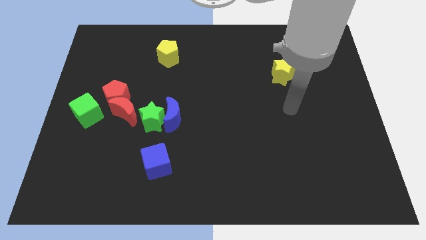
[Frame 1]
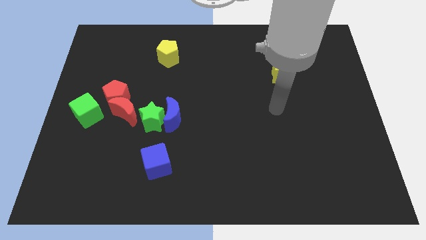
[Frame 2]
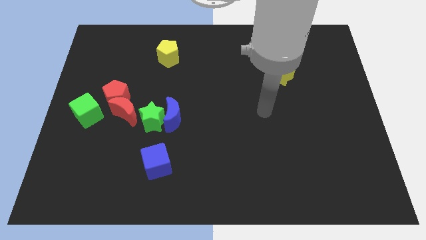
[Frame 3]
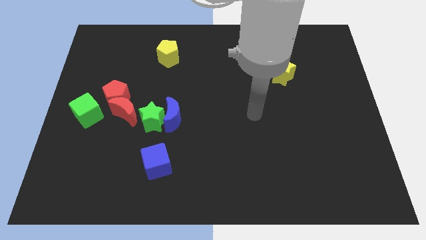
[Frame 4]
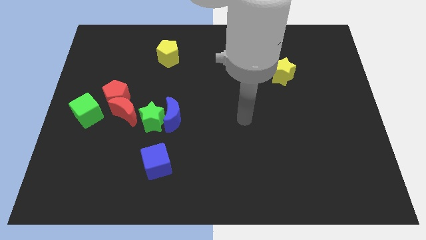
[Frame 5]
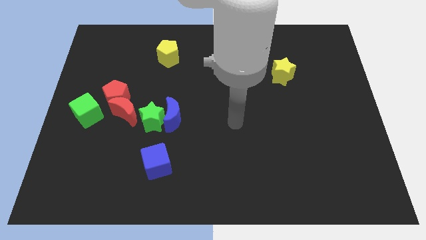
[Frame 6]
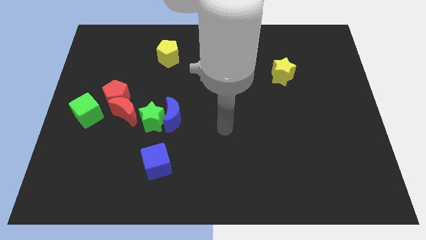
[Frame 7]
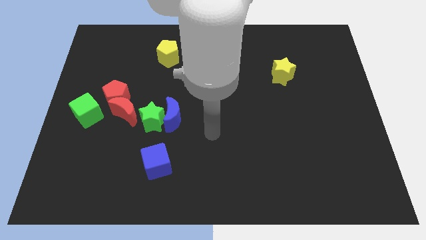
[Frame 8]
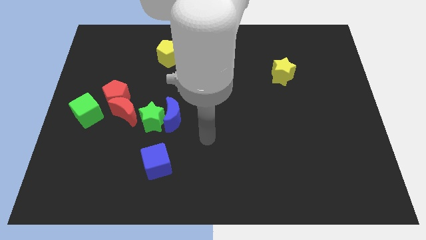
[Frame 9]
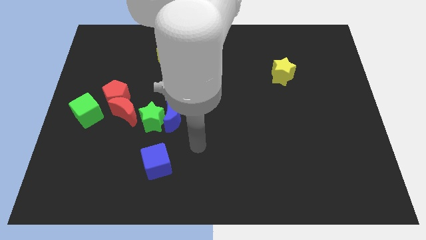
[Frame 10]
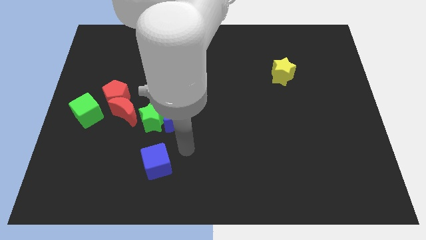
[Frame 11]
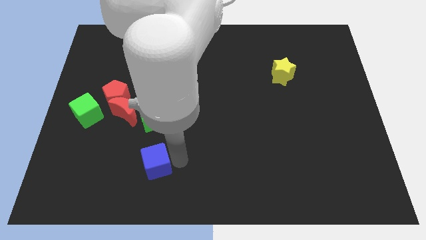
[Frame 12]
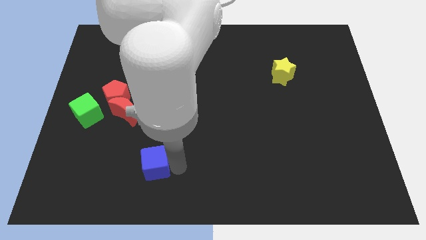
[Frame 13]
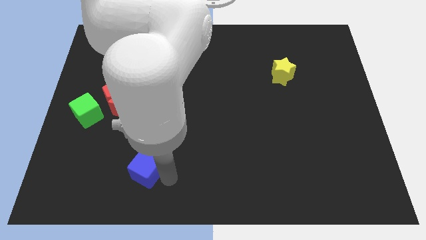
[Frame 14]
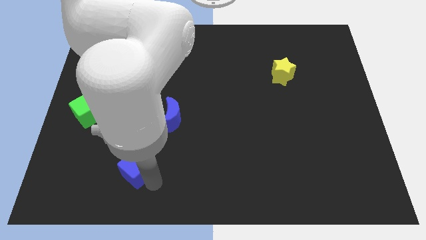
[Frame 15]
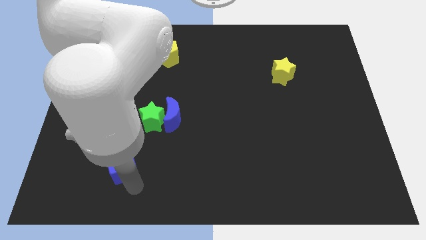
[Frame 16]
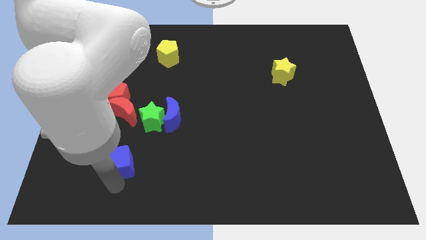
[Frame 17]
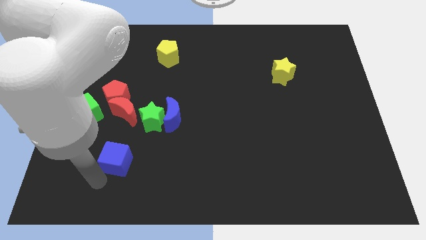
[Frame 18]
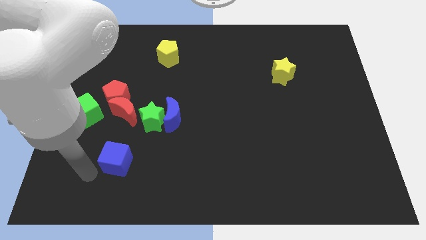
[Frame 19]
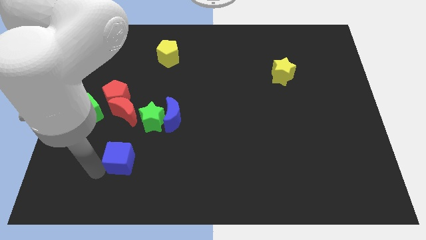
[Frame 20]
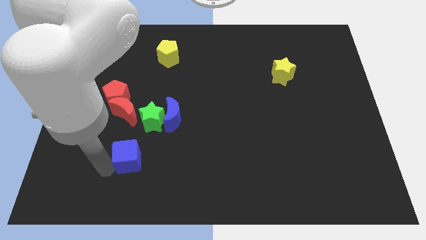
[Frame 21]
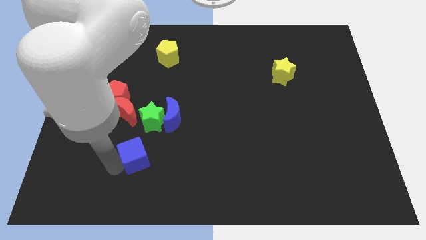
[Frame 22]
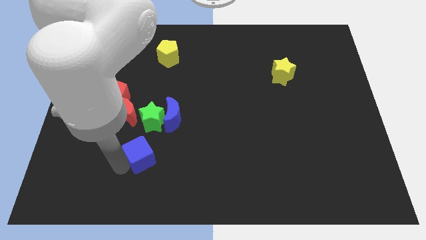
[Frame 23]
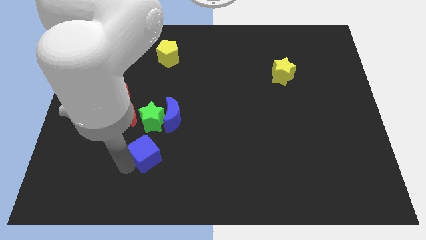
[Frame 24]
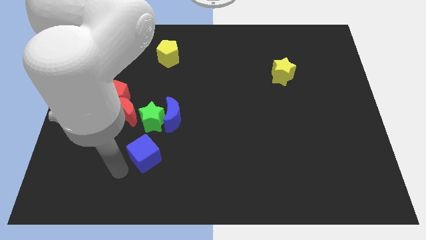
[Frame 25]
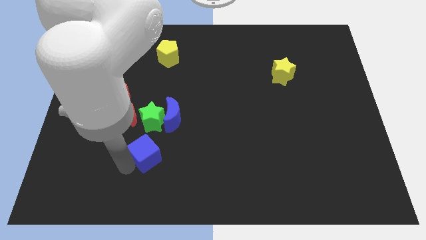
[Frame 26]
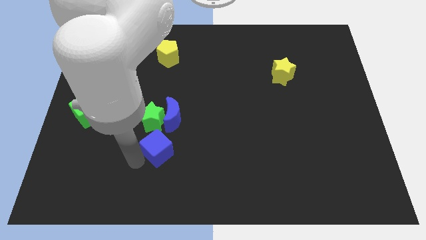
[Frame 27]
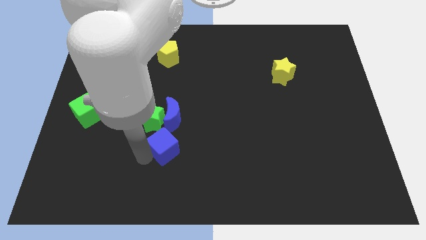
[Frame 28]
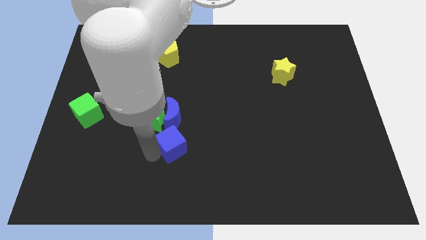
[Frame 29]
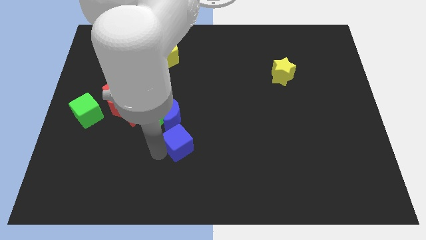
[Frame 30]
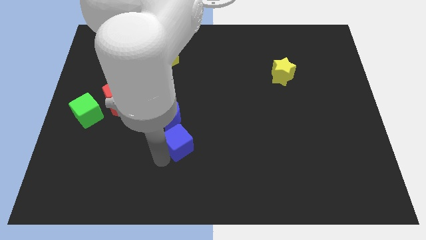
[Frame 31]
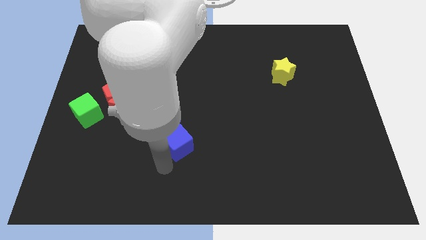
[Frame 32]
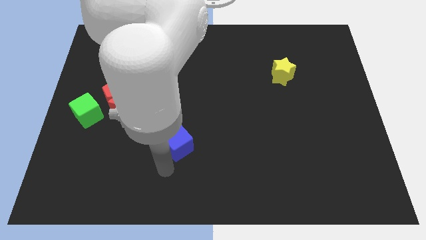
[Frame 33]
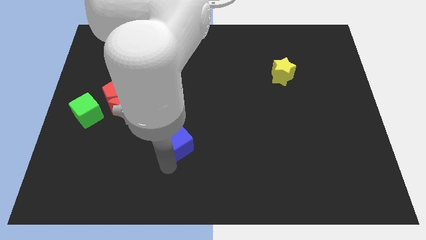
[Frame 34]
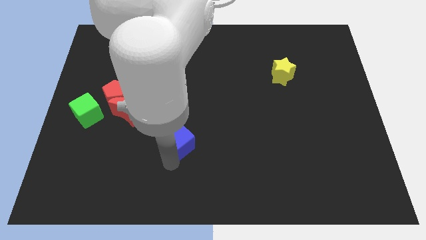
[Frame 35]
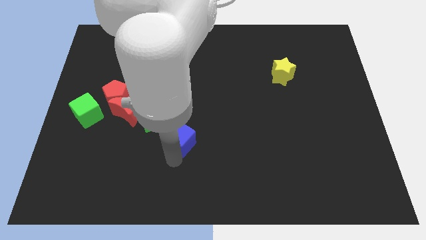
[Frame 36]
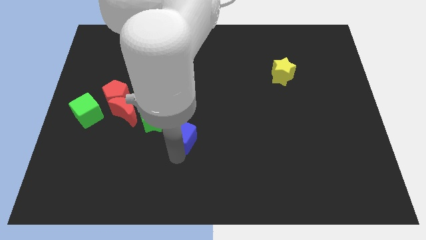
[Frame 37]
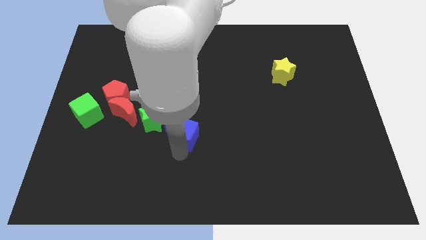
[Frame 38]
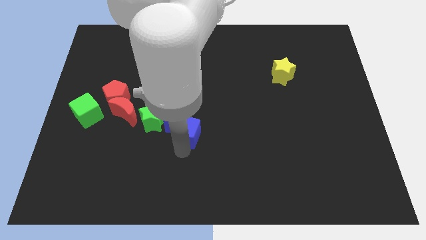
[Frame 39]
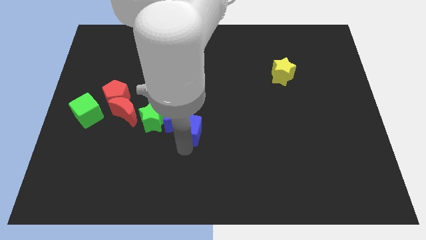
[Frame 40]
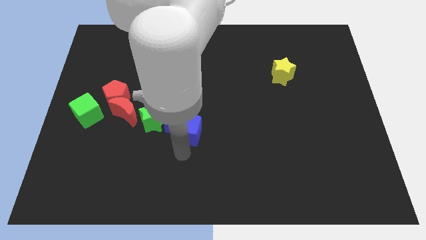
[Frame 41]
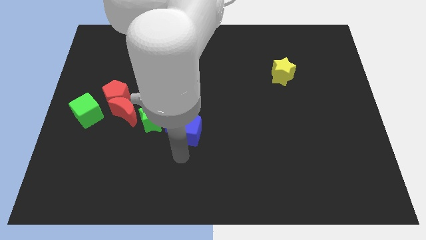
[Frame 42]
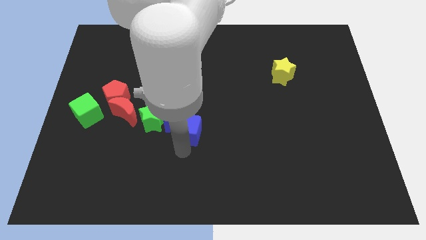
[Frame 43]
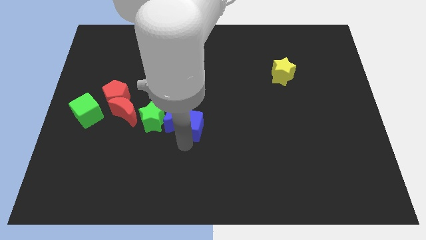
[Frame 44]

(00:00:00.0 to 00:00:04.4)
move the blue cube up a bit

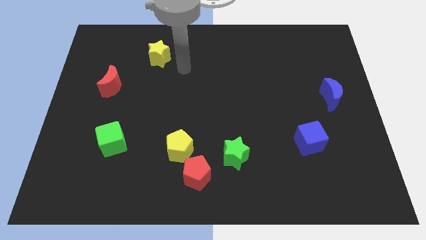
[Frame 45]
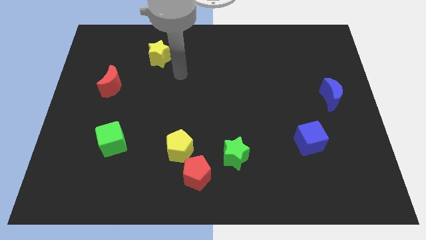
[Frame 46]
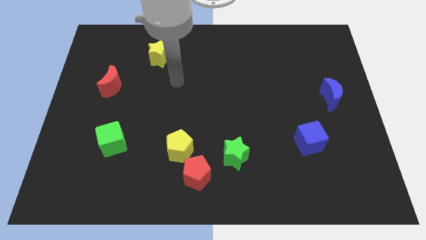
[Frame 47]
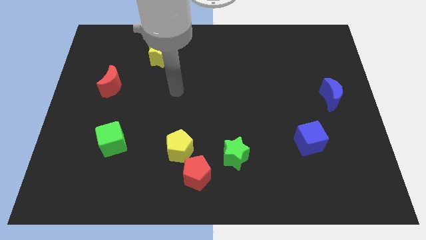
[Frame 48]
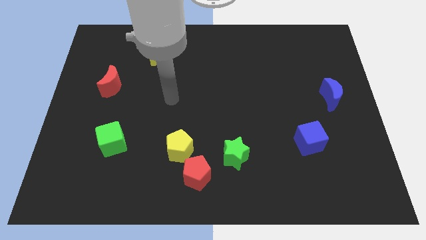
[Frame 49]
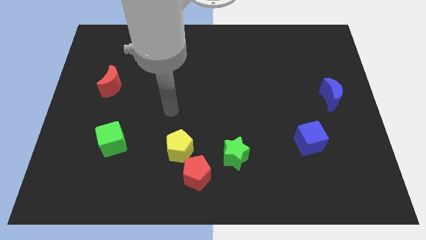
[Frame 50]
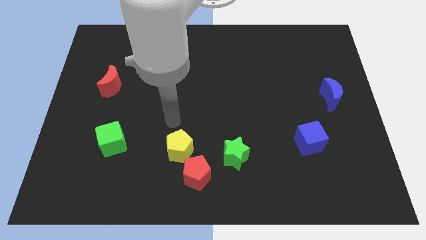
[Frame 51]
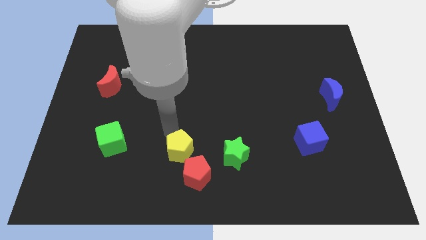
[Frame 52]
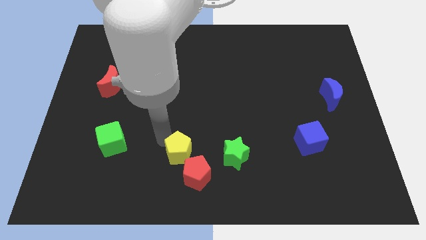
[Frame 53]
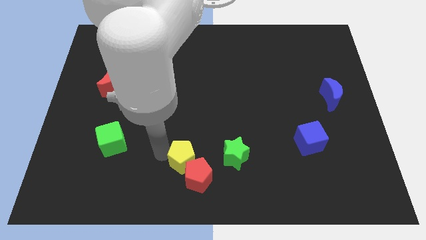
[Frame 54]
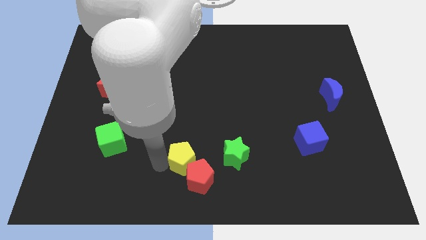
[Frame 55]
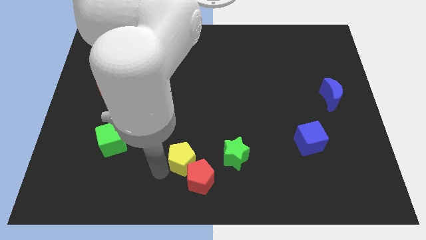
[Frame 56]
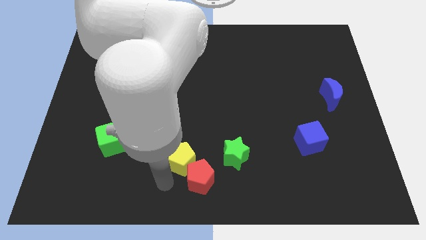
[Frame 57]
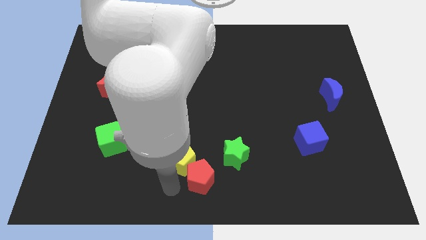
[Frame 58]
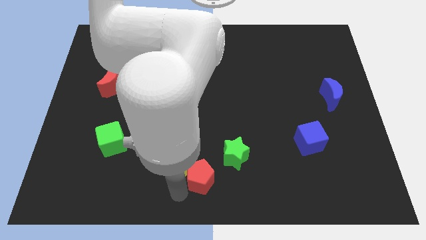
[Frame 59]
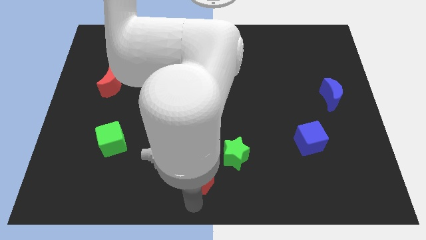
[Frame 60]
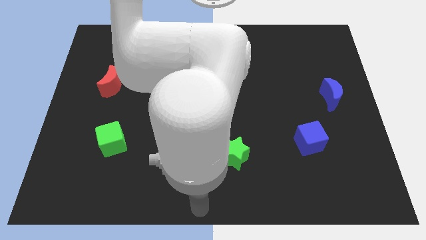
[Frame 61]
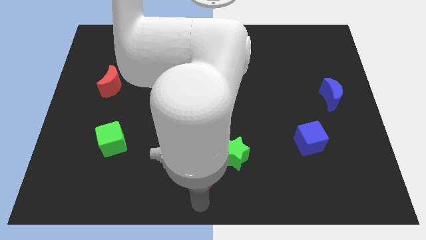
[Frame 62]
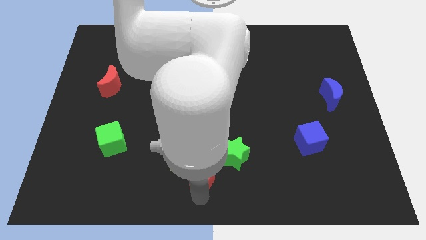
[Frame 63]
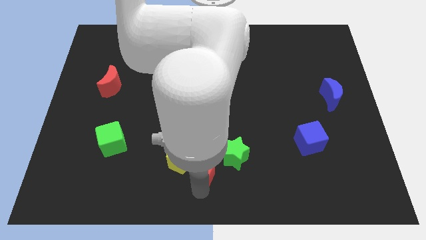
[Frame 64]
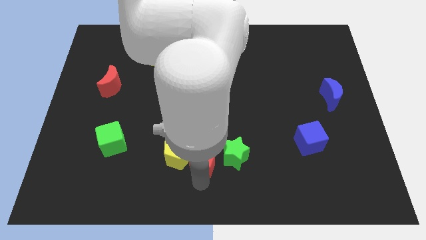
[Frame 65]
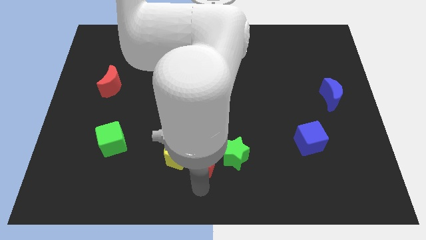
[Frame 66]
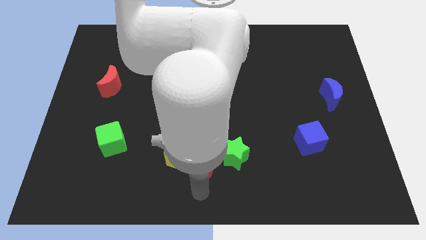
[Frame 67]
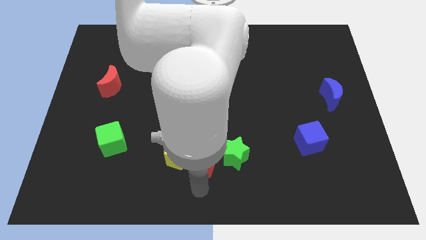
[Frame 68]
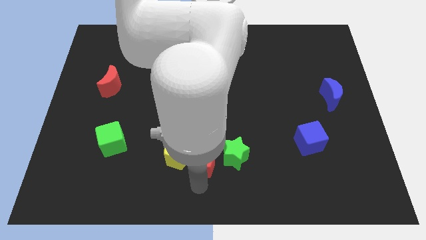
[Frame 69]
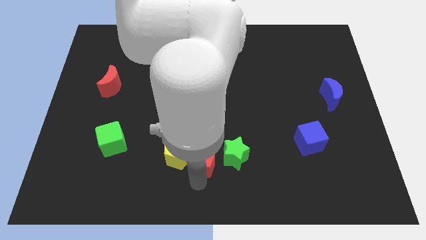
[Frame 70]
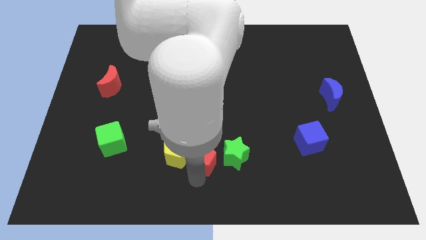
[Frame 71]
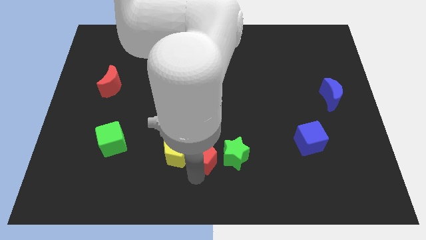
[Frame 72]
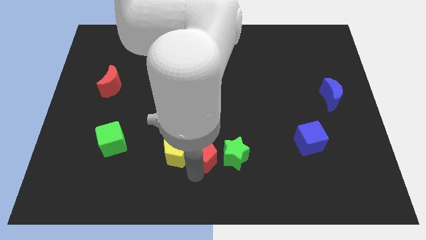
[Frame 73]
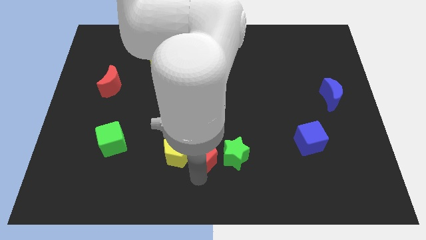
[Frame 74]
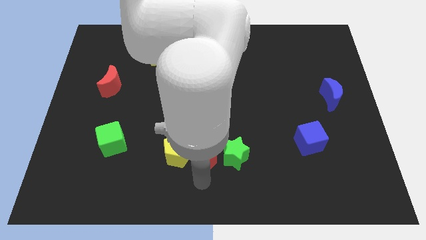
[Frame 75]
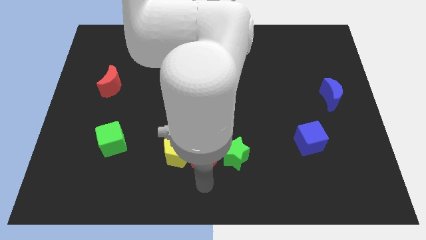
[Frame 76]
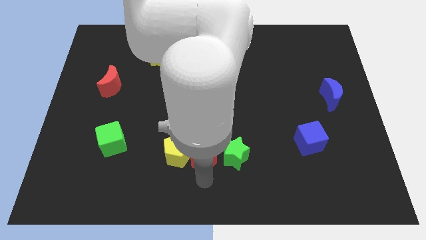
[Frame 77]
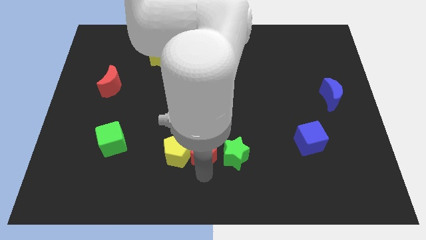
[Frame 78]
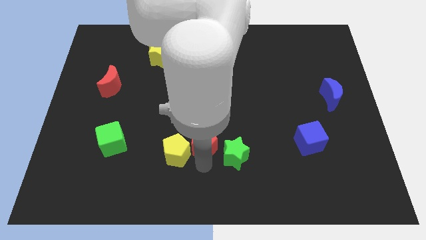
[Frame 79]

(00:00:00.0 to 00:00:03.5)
push the red pentagon a little bit upwards

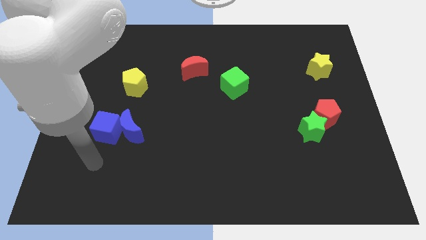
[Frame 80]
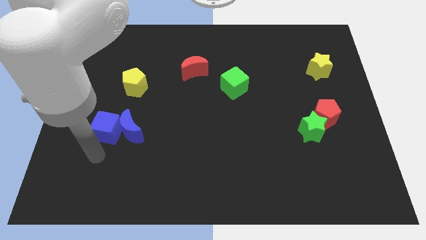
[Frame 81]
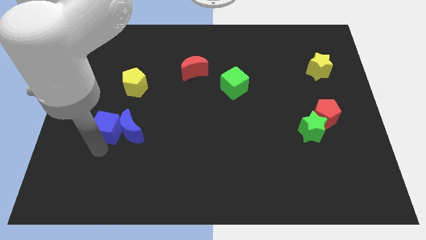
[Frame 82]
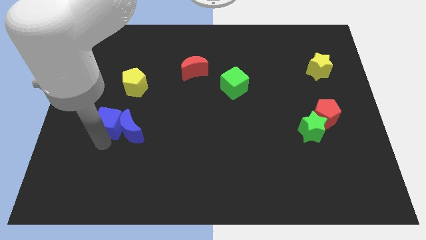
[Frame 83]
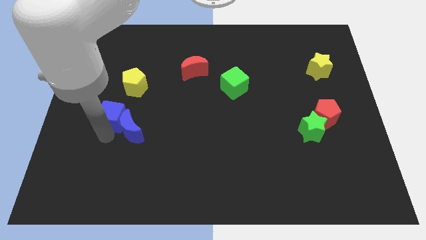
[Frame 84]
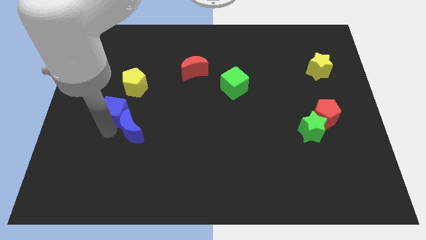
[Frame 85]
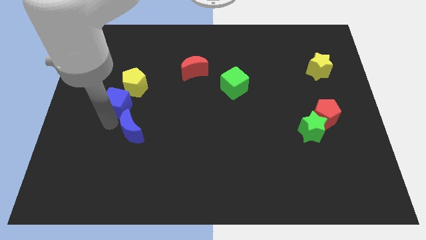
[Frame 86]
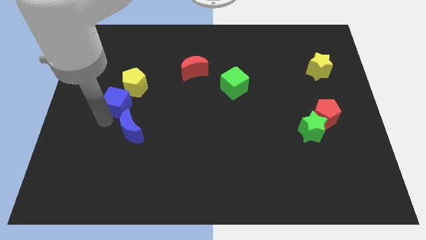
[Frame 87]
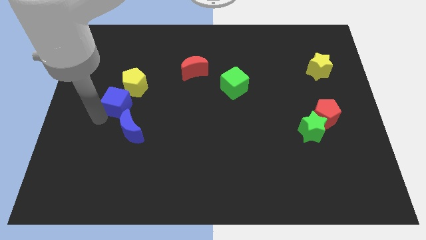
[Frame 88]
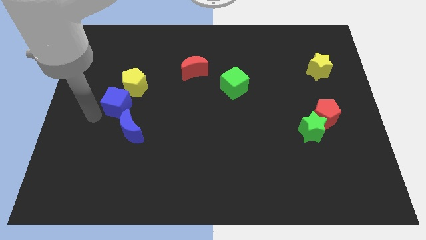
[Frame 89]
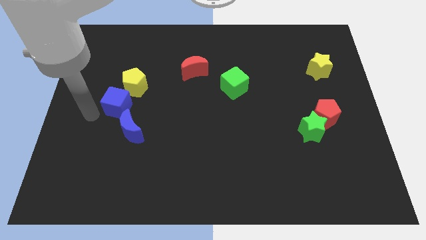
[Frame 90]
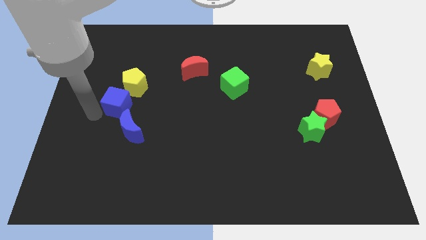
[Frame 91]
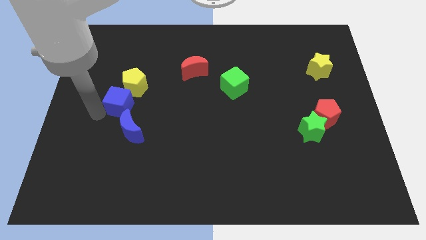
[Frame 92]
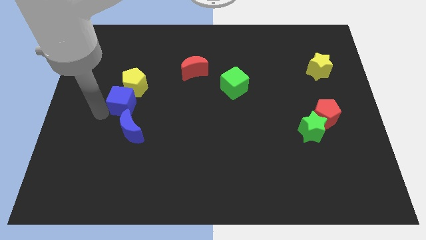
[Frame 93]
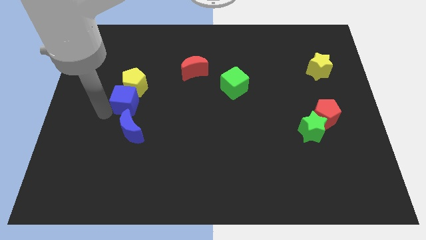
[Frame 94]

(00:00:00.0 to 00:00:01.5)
push the blue cube a little bit up and right
